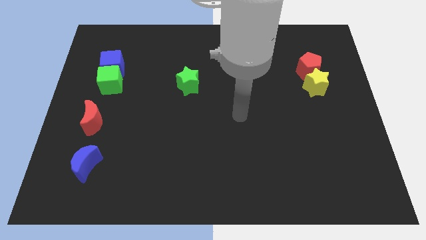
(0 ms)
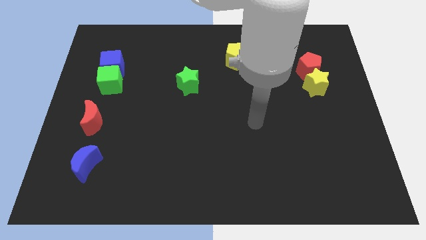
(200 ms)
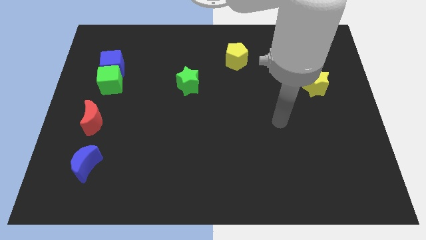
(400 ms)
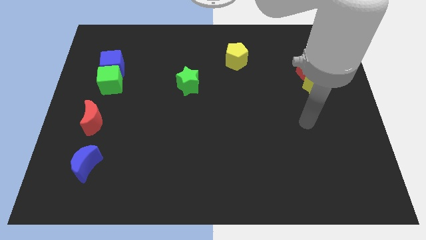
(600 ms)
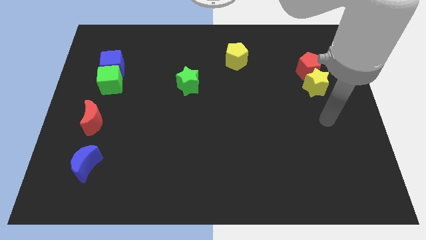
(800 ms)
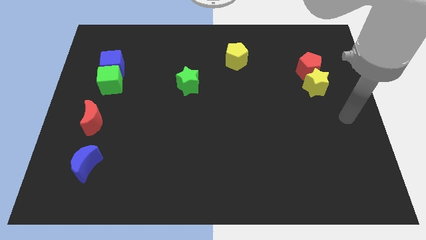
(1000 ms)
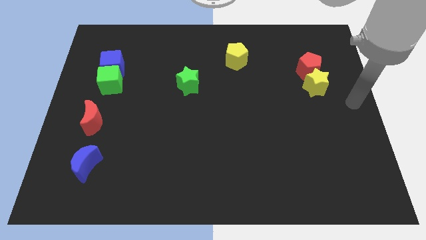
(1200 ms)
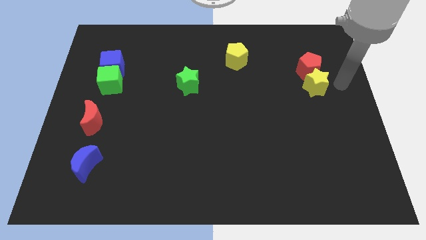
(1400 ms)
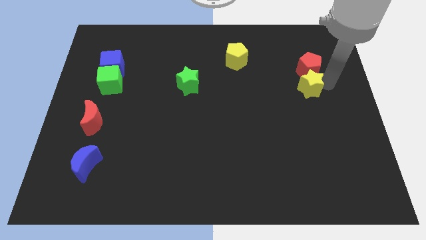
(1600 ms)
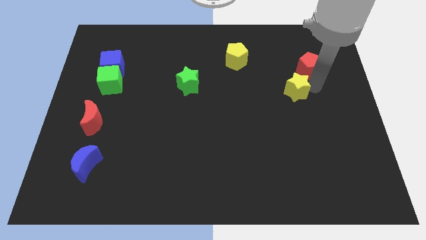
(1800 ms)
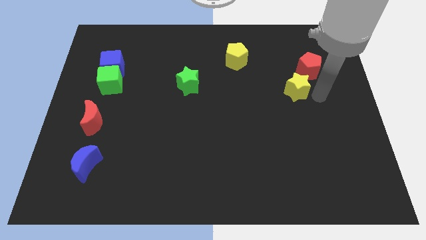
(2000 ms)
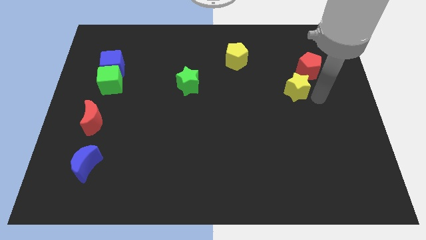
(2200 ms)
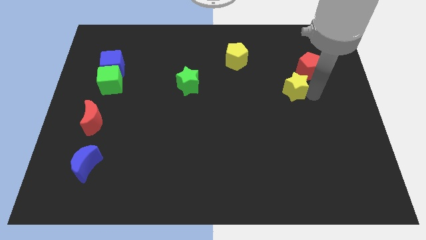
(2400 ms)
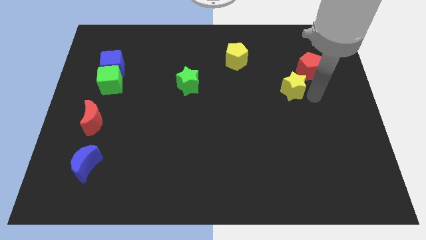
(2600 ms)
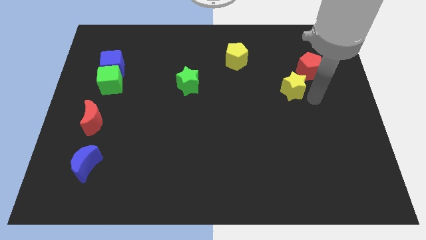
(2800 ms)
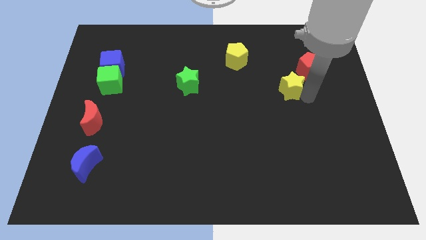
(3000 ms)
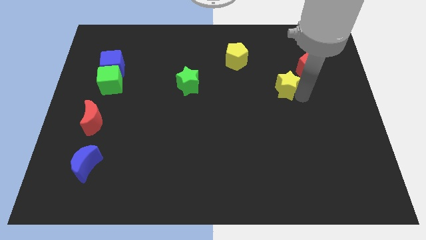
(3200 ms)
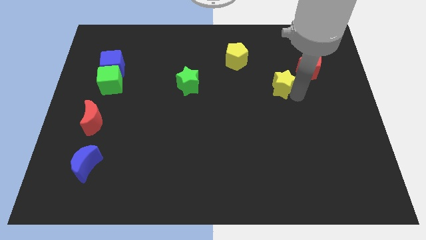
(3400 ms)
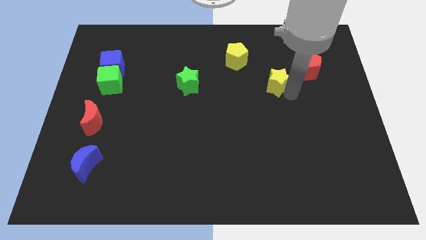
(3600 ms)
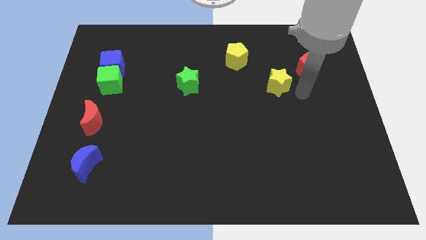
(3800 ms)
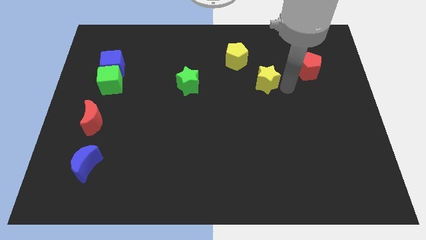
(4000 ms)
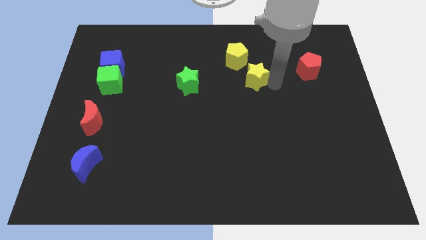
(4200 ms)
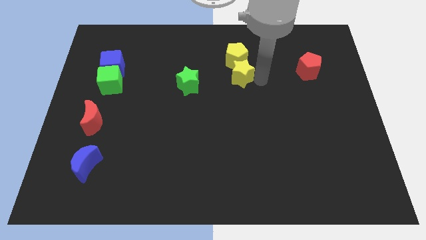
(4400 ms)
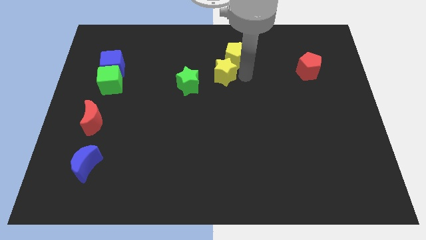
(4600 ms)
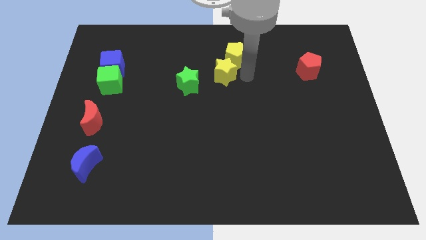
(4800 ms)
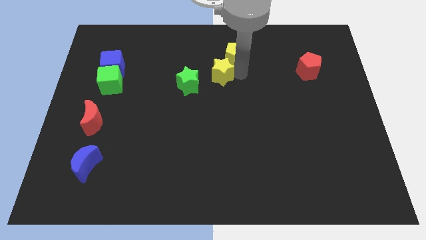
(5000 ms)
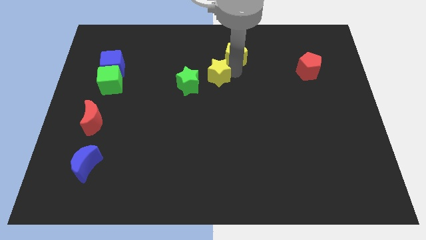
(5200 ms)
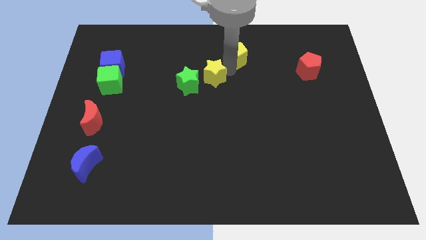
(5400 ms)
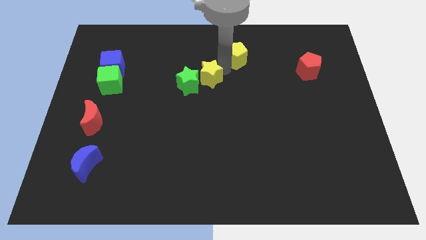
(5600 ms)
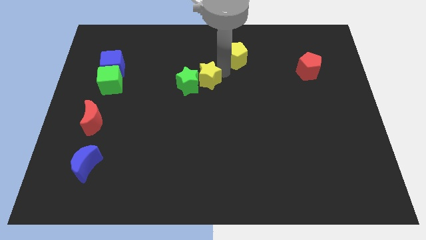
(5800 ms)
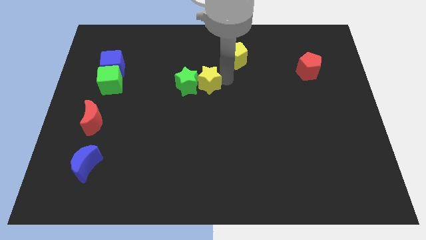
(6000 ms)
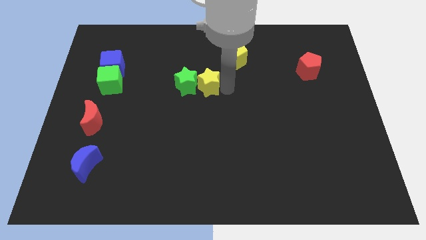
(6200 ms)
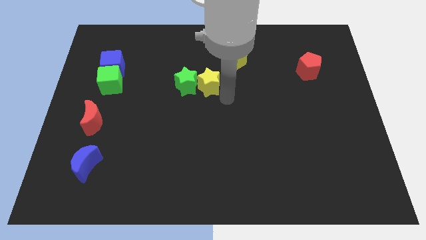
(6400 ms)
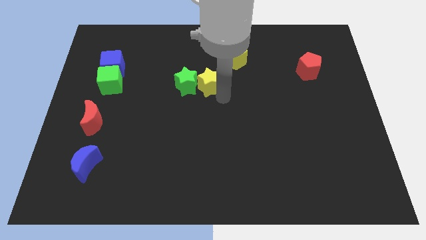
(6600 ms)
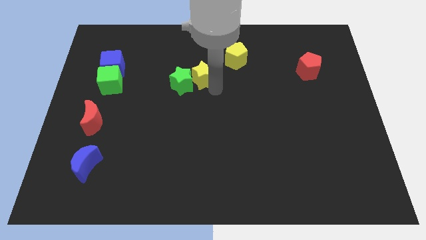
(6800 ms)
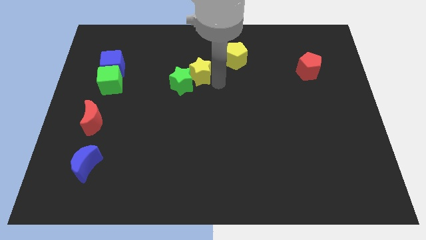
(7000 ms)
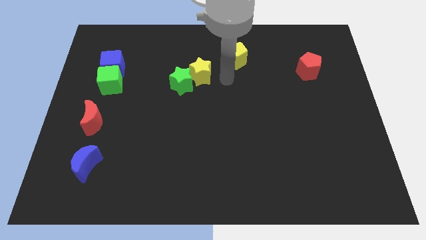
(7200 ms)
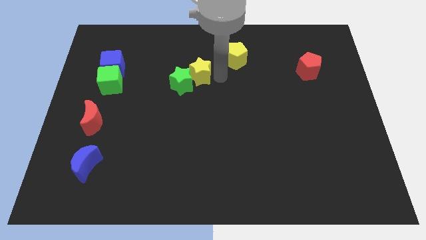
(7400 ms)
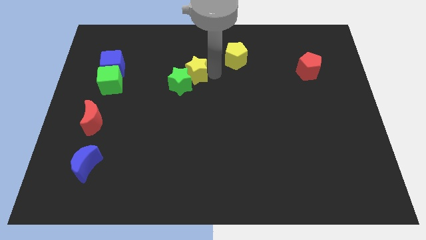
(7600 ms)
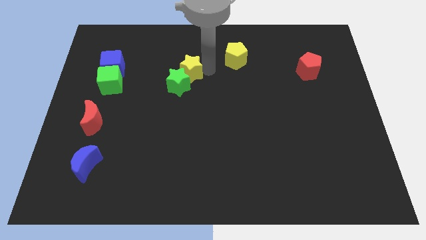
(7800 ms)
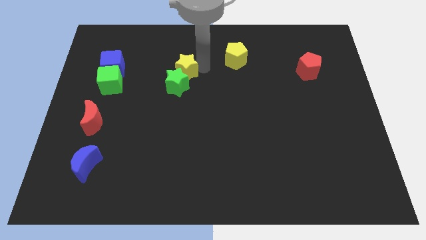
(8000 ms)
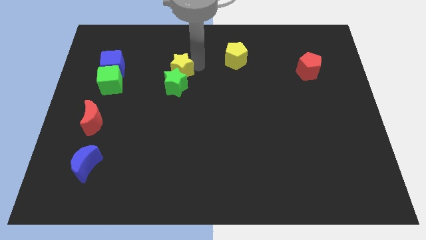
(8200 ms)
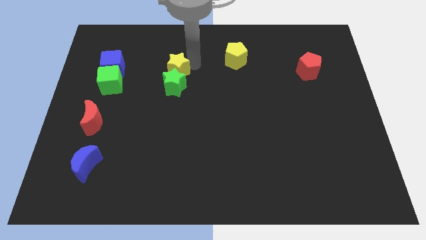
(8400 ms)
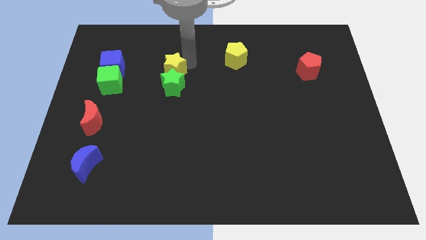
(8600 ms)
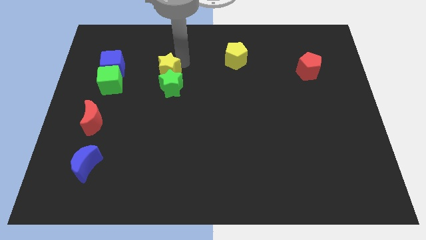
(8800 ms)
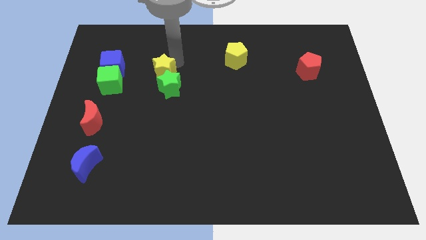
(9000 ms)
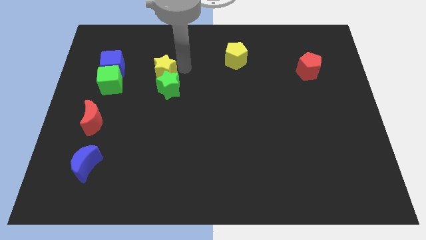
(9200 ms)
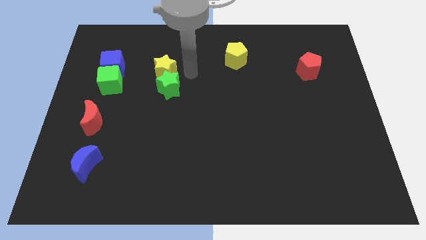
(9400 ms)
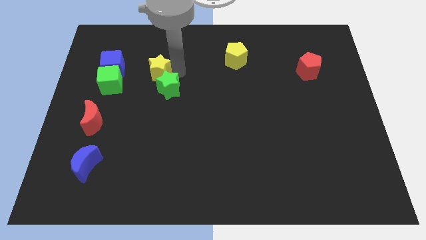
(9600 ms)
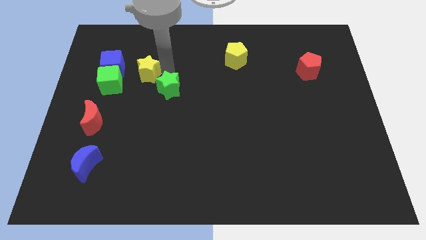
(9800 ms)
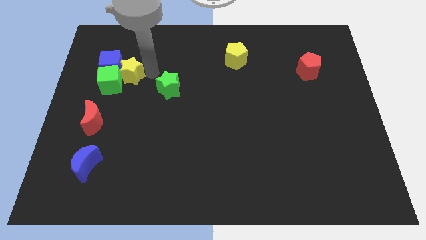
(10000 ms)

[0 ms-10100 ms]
put the yellow star towards the blue cube

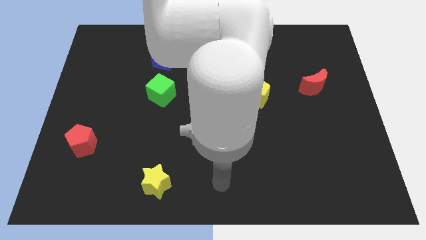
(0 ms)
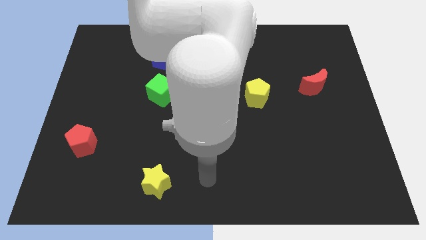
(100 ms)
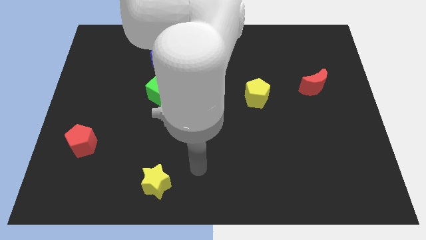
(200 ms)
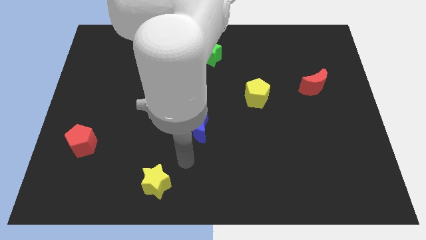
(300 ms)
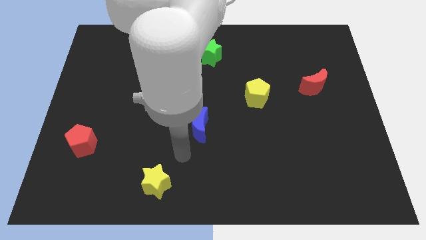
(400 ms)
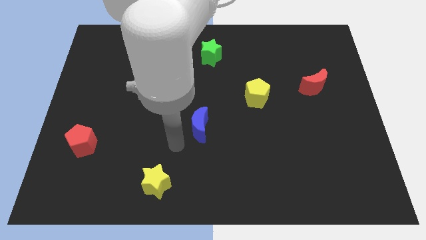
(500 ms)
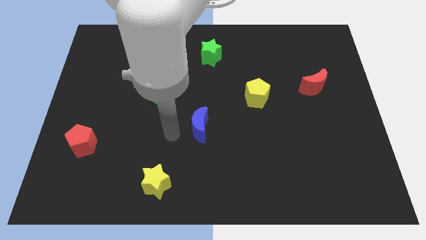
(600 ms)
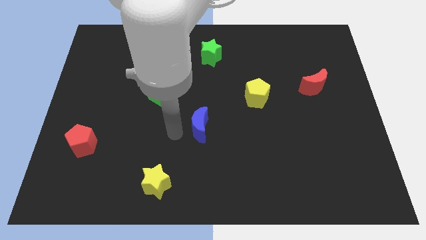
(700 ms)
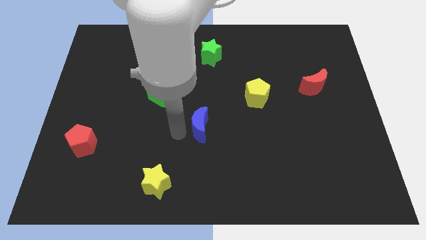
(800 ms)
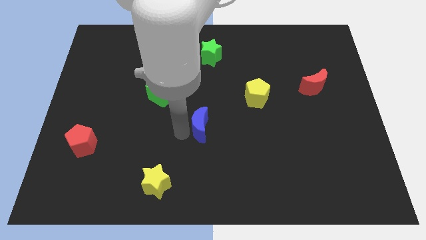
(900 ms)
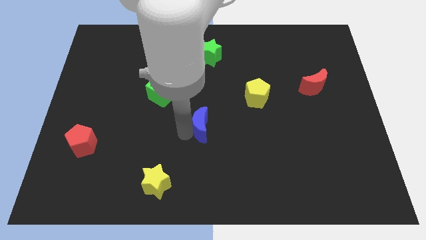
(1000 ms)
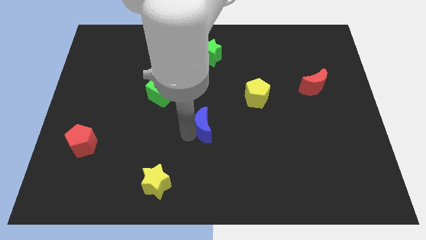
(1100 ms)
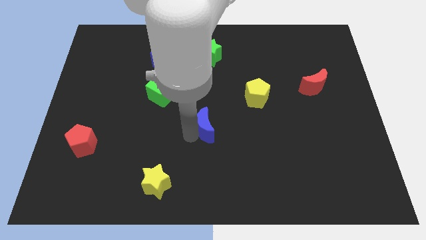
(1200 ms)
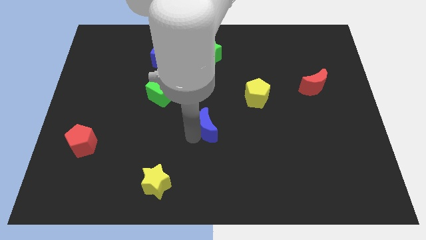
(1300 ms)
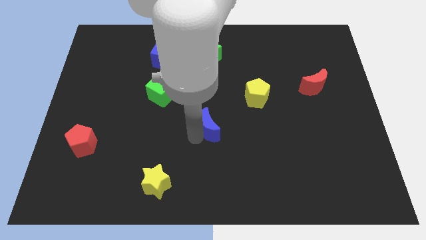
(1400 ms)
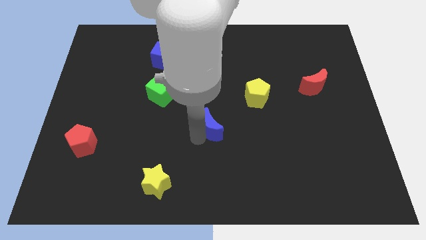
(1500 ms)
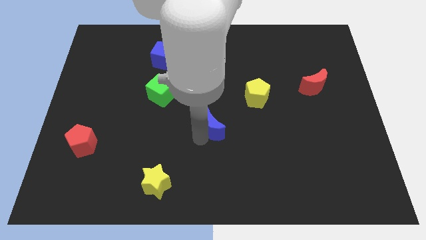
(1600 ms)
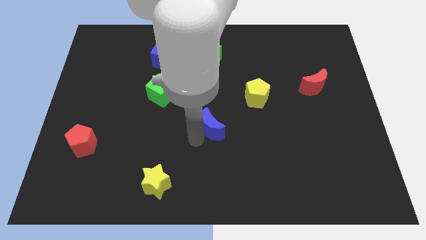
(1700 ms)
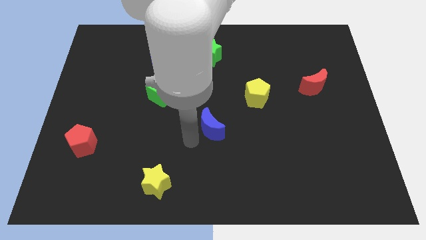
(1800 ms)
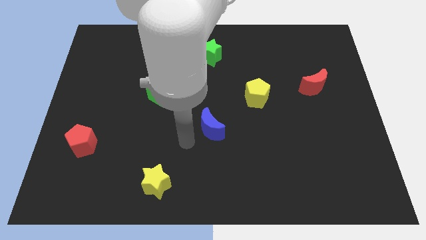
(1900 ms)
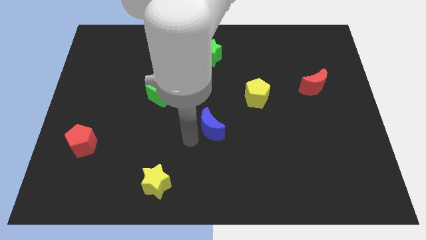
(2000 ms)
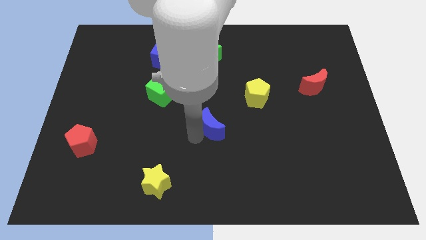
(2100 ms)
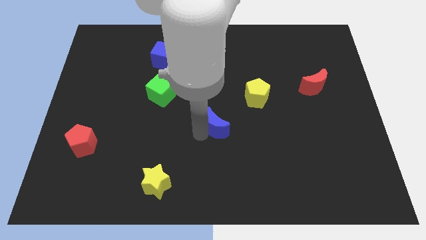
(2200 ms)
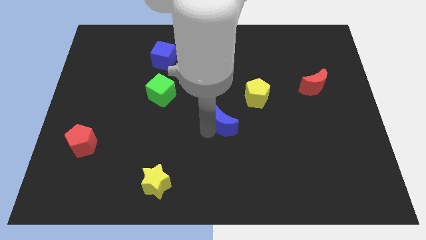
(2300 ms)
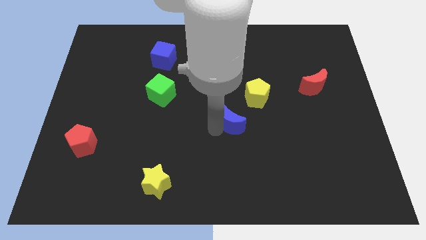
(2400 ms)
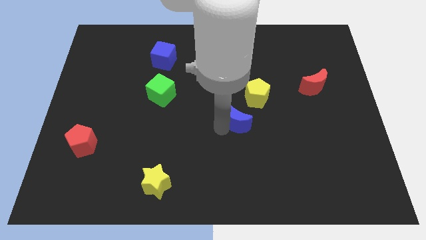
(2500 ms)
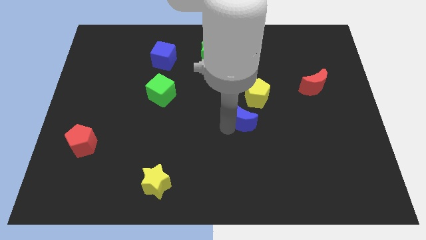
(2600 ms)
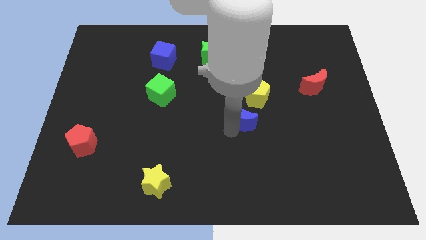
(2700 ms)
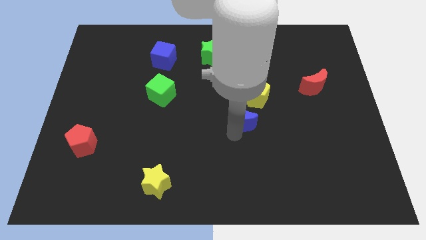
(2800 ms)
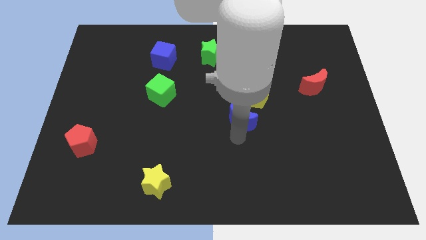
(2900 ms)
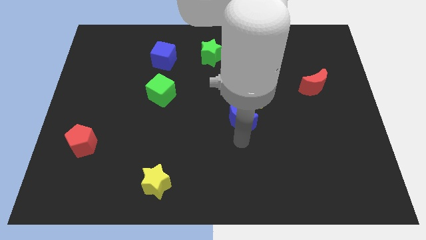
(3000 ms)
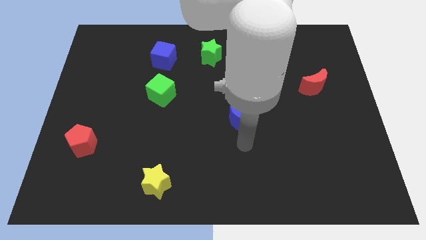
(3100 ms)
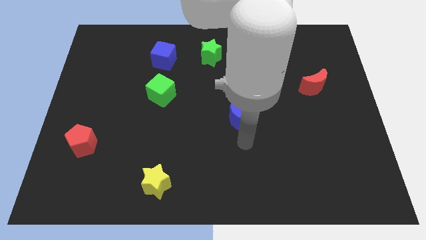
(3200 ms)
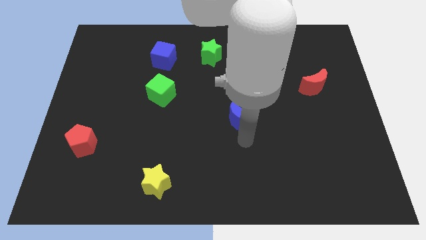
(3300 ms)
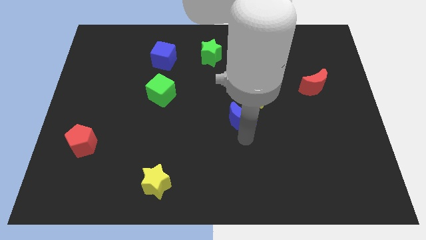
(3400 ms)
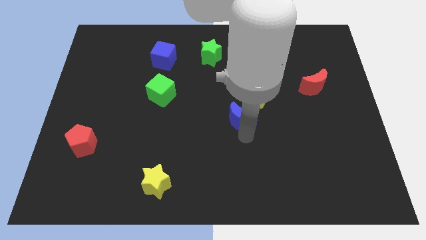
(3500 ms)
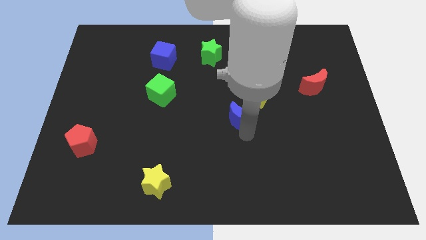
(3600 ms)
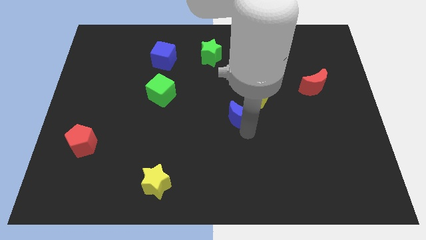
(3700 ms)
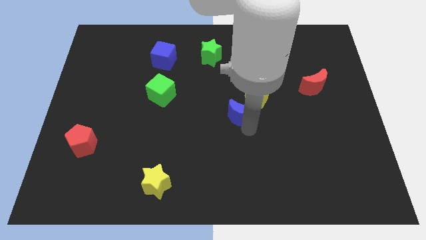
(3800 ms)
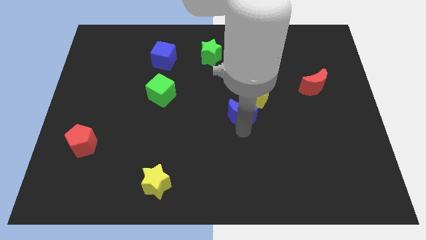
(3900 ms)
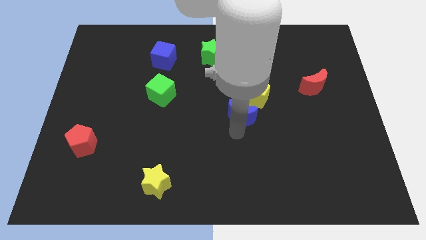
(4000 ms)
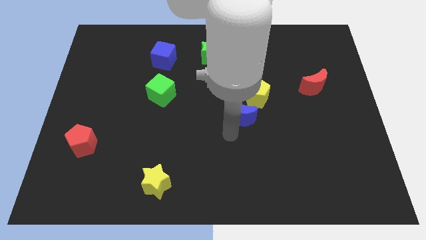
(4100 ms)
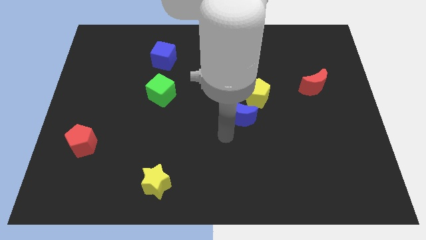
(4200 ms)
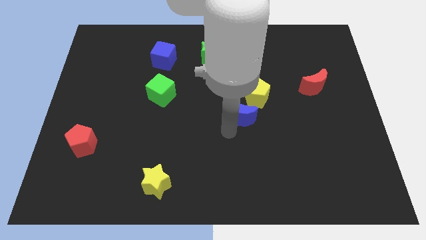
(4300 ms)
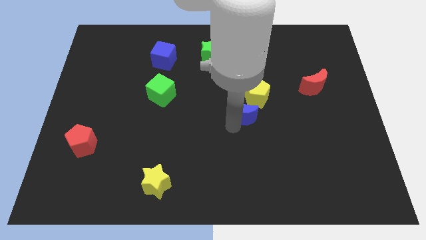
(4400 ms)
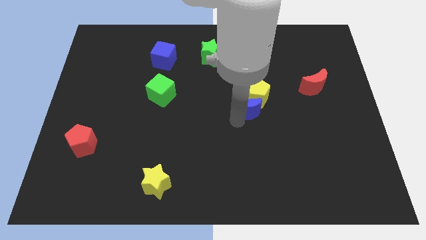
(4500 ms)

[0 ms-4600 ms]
move the blue moon next to the yellow pentagon
